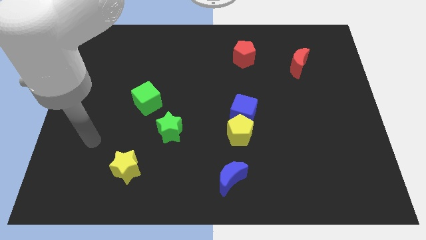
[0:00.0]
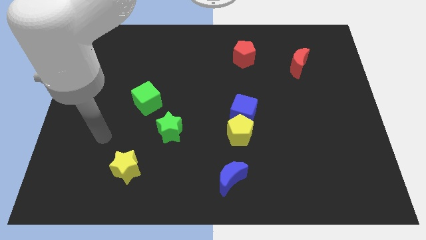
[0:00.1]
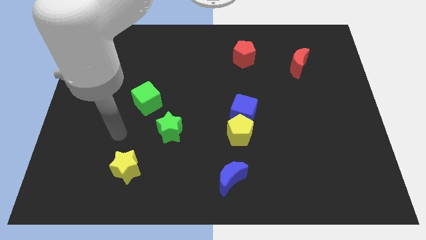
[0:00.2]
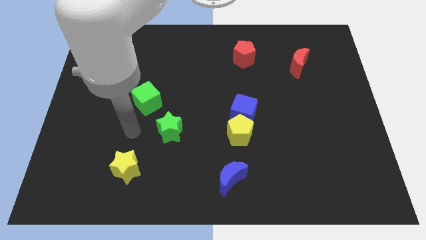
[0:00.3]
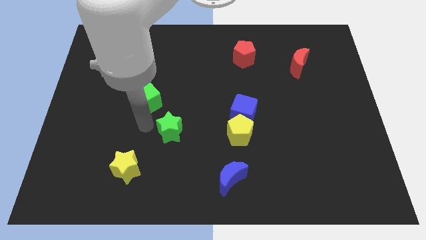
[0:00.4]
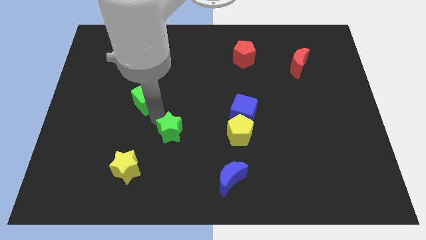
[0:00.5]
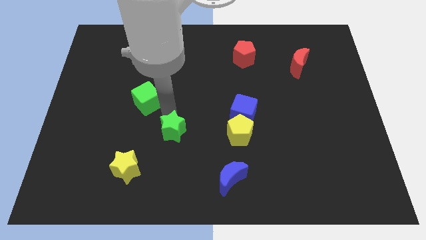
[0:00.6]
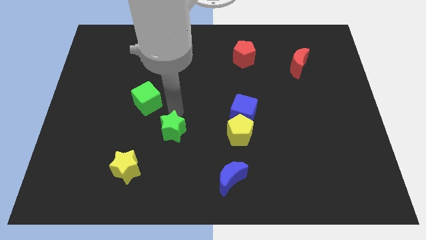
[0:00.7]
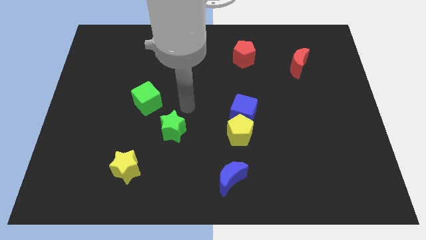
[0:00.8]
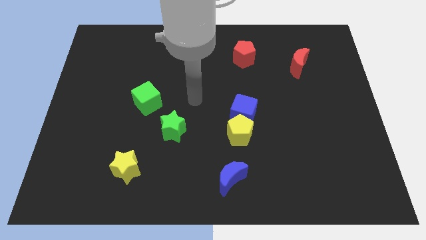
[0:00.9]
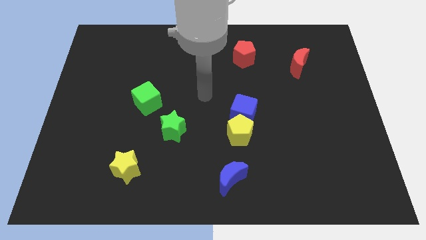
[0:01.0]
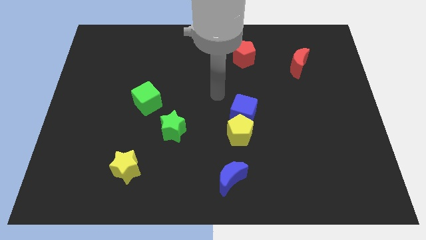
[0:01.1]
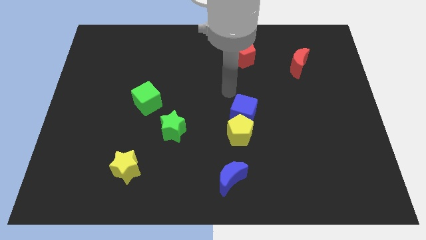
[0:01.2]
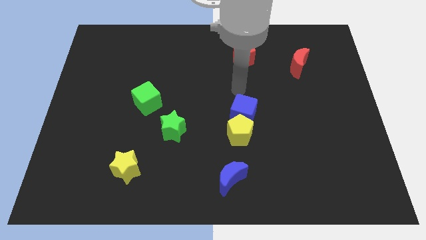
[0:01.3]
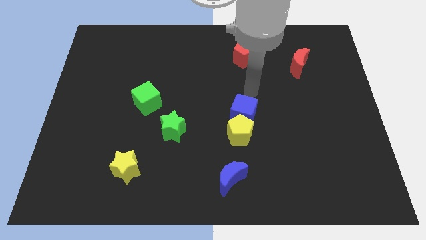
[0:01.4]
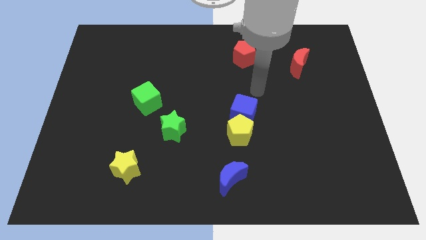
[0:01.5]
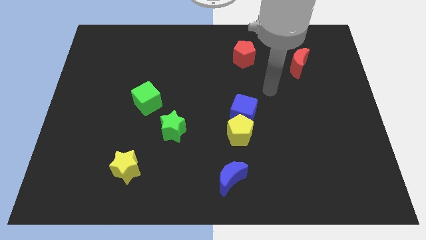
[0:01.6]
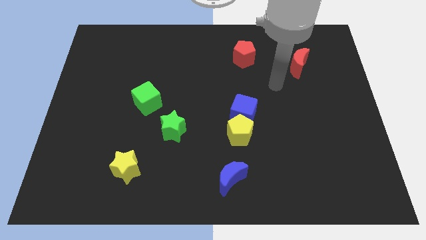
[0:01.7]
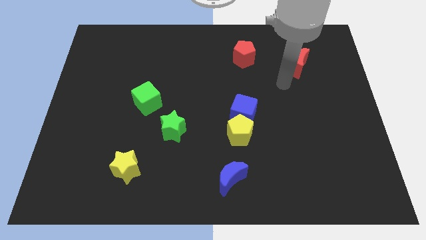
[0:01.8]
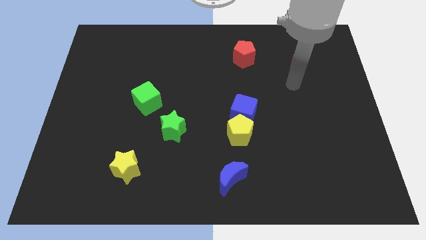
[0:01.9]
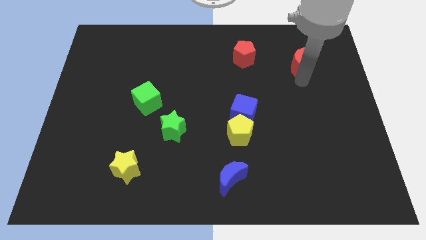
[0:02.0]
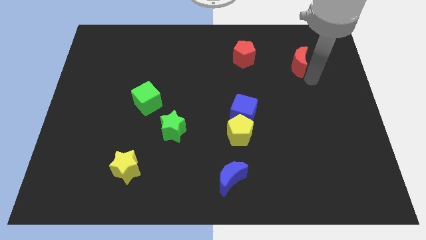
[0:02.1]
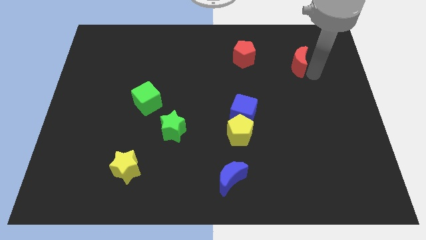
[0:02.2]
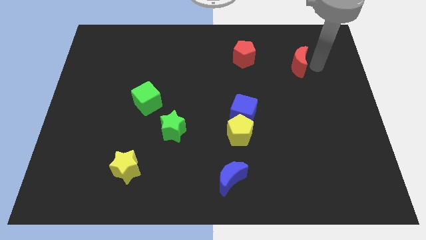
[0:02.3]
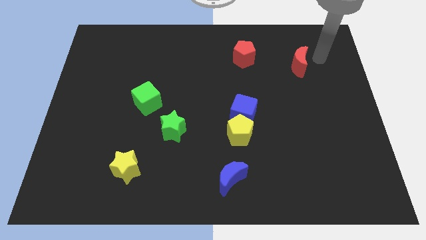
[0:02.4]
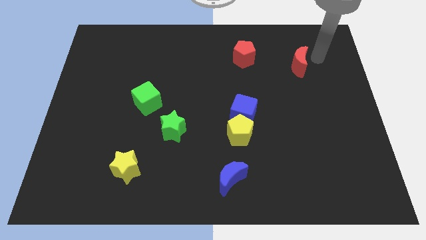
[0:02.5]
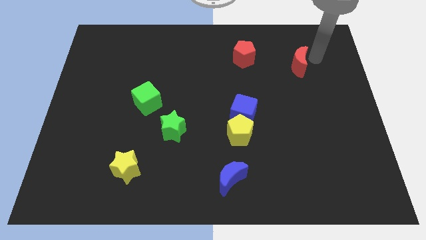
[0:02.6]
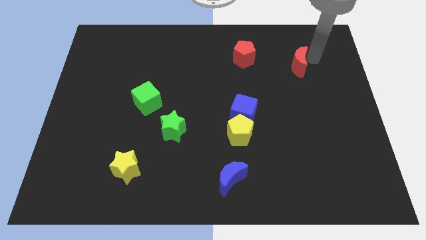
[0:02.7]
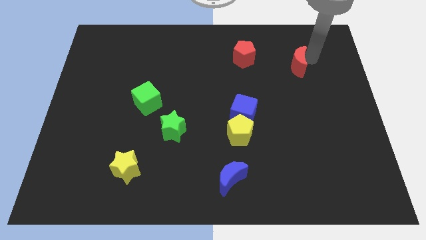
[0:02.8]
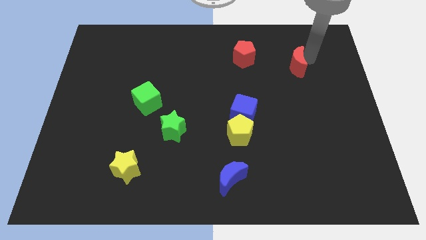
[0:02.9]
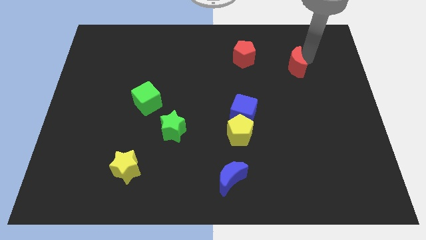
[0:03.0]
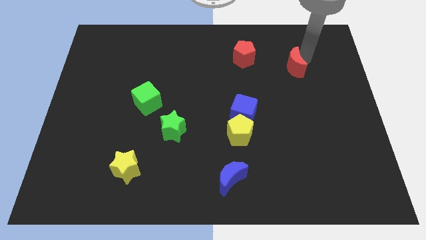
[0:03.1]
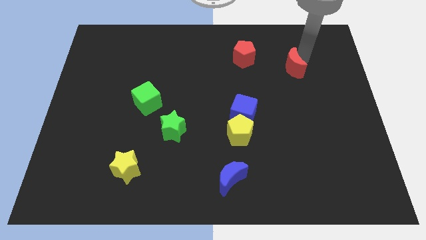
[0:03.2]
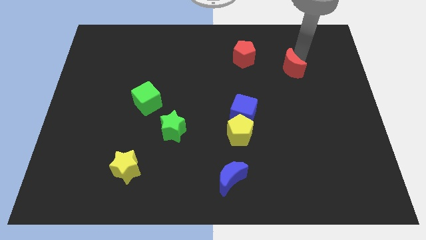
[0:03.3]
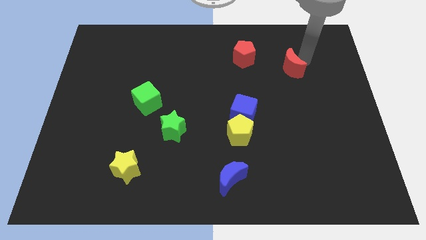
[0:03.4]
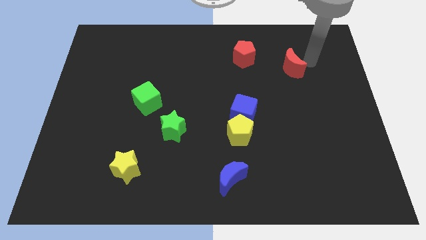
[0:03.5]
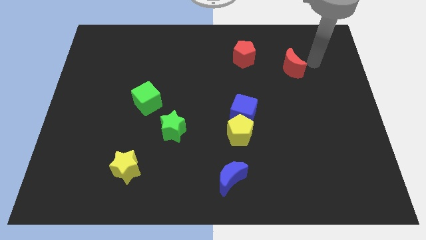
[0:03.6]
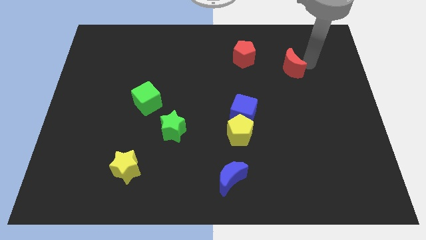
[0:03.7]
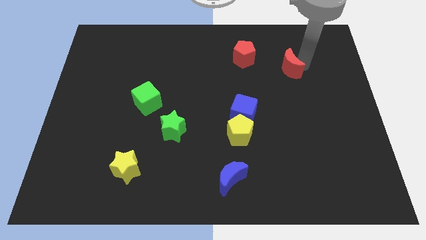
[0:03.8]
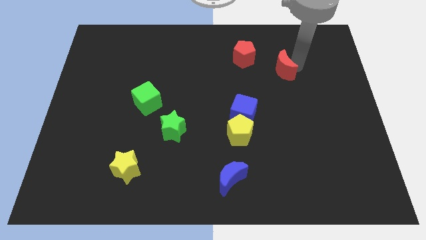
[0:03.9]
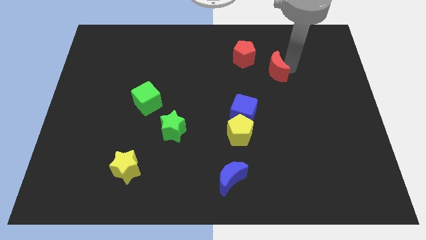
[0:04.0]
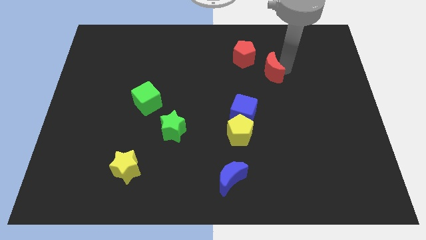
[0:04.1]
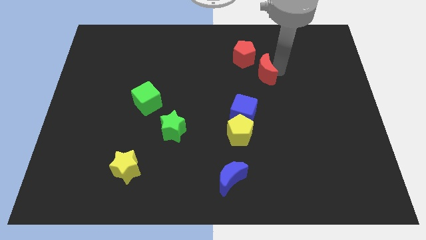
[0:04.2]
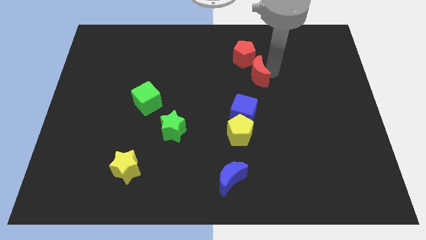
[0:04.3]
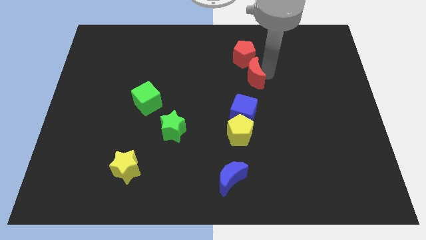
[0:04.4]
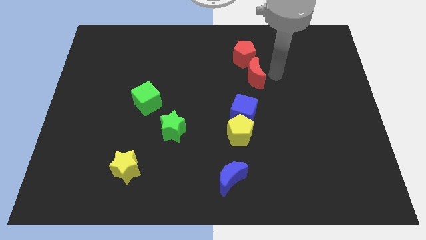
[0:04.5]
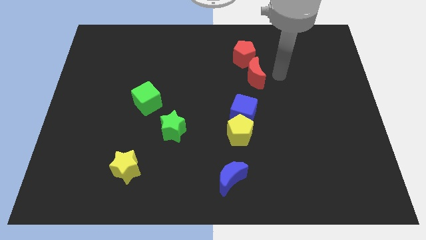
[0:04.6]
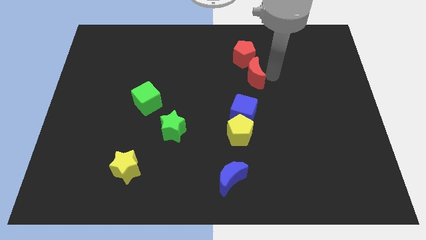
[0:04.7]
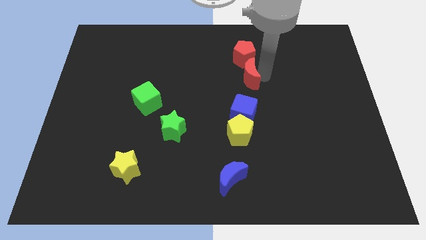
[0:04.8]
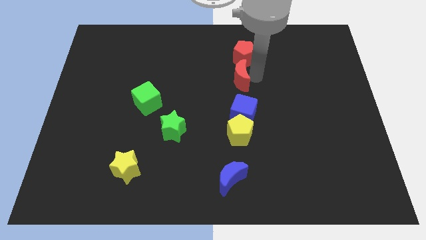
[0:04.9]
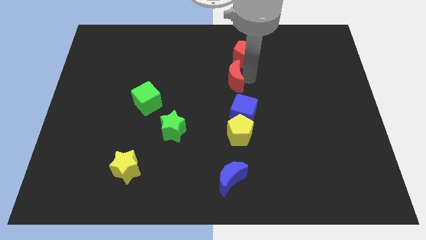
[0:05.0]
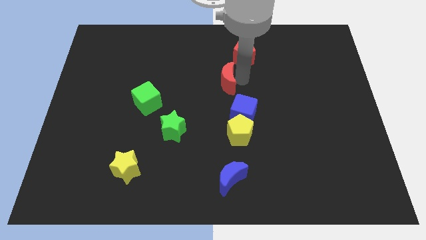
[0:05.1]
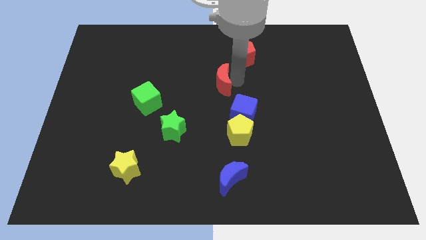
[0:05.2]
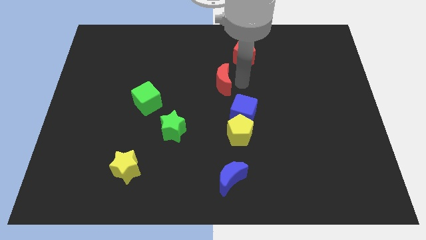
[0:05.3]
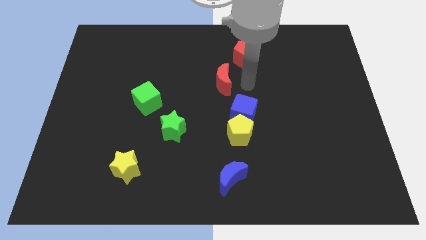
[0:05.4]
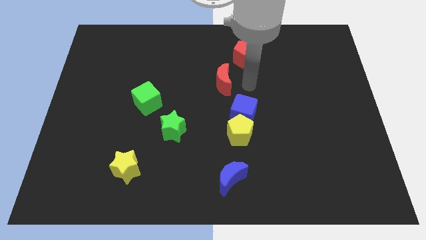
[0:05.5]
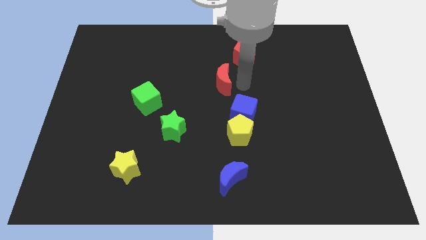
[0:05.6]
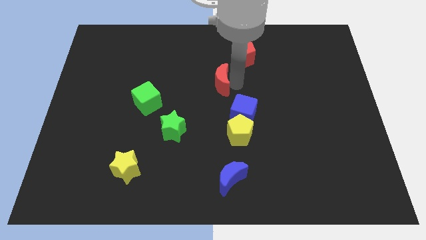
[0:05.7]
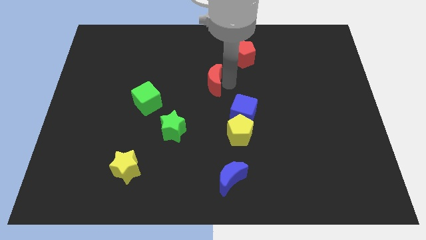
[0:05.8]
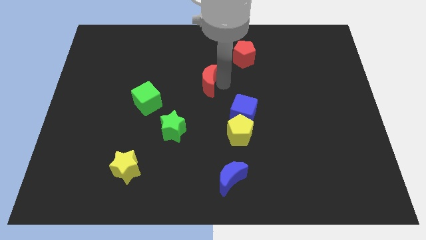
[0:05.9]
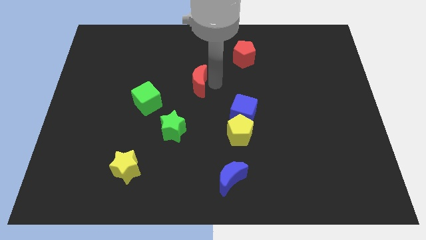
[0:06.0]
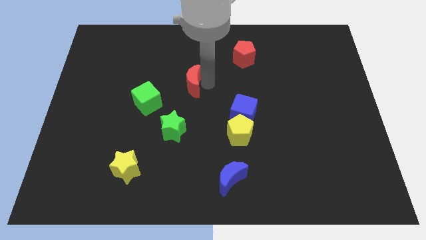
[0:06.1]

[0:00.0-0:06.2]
slide the red moon to the top right side of the green cube

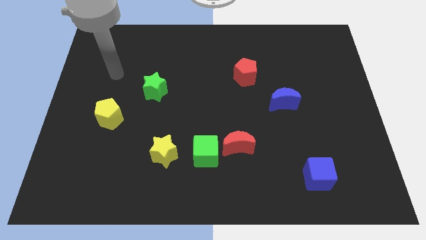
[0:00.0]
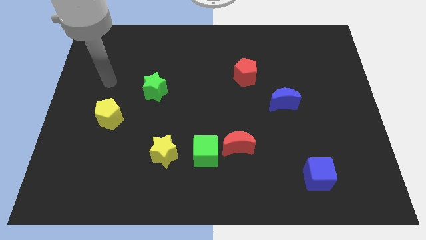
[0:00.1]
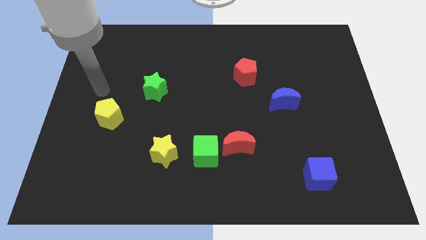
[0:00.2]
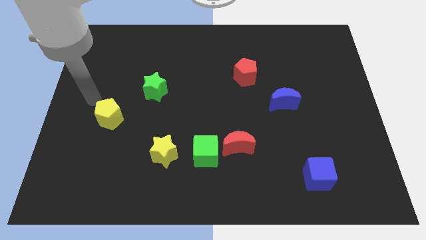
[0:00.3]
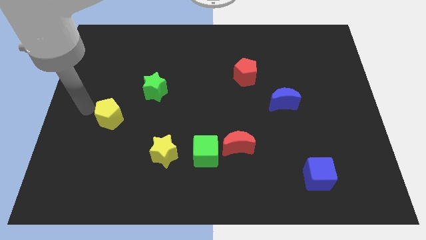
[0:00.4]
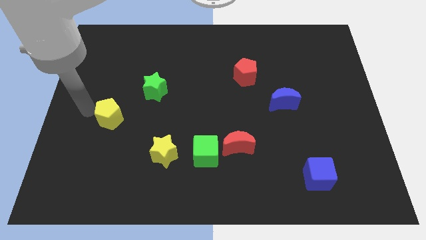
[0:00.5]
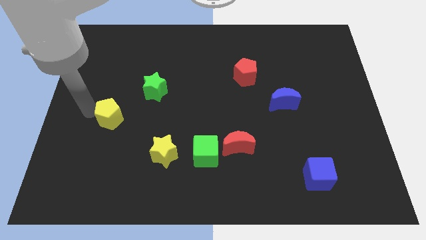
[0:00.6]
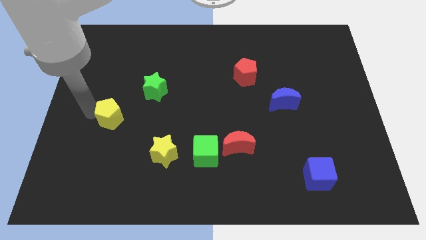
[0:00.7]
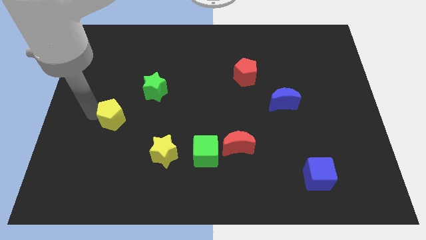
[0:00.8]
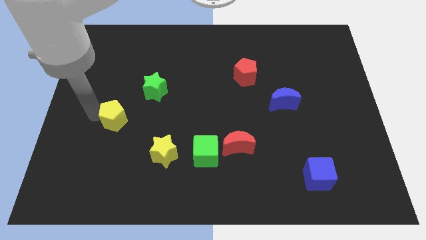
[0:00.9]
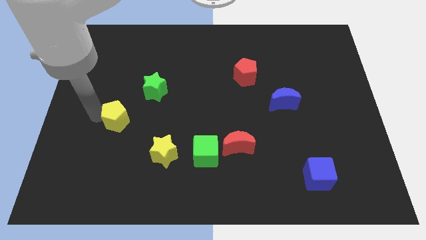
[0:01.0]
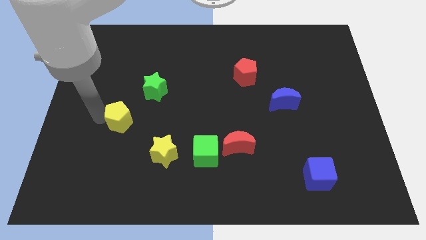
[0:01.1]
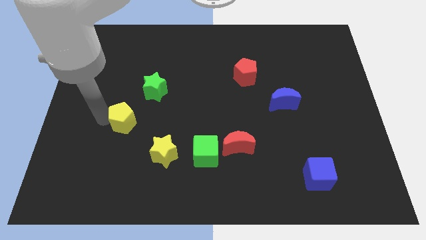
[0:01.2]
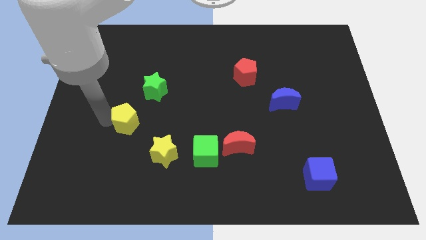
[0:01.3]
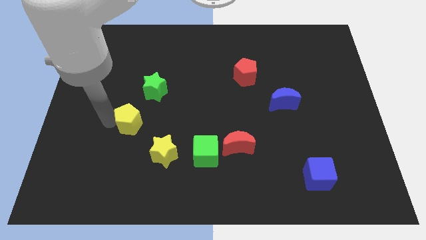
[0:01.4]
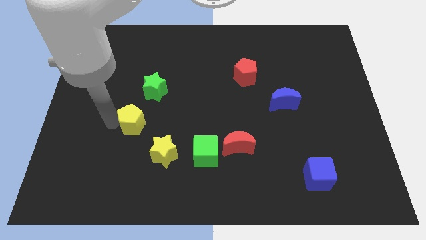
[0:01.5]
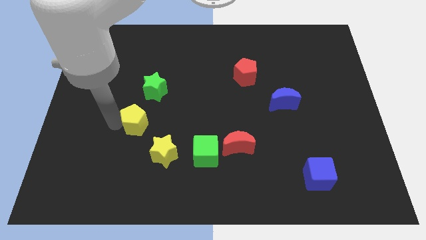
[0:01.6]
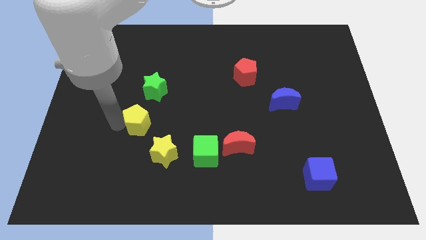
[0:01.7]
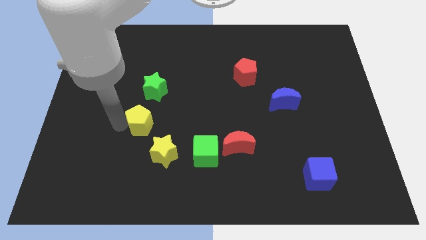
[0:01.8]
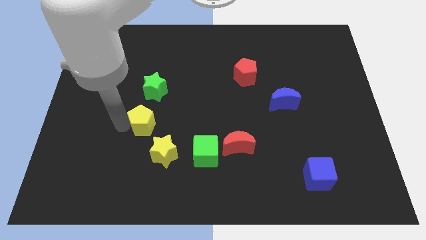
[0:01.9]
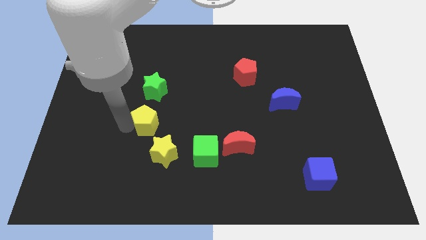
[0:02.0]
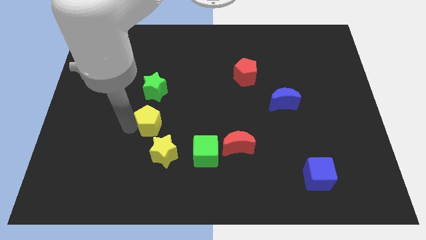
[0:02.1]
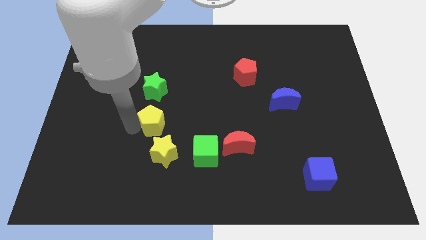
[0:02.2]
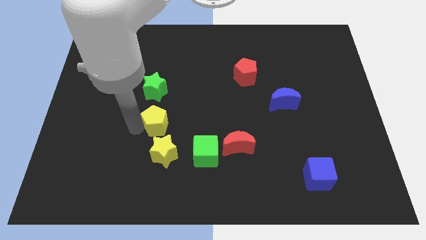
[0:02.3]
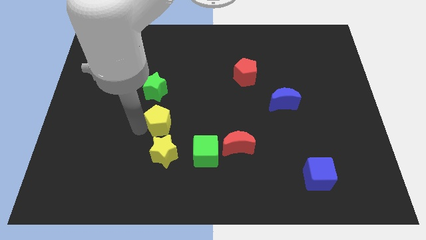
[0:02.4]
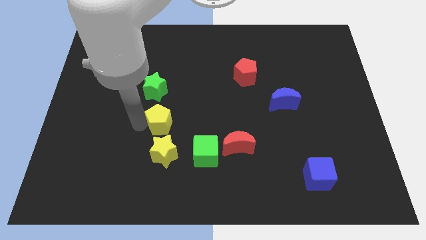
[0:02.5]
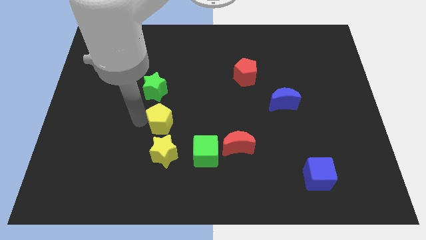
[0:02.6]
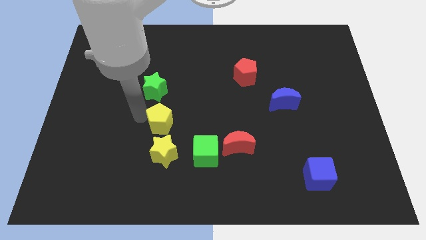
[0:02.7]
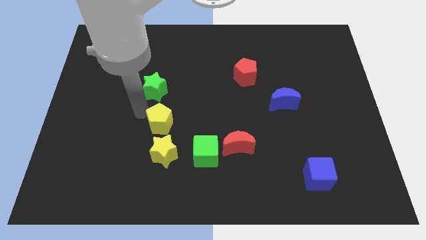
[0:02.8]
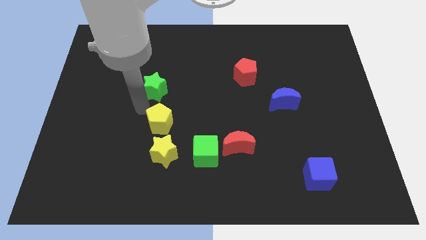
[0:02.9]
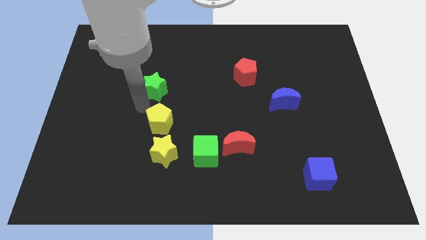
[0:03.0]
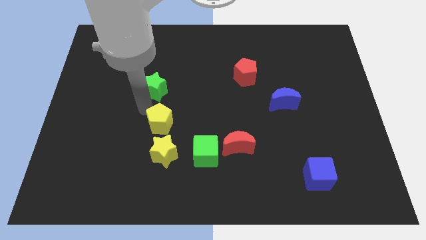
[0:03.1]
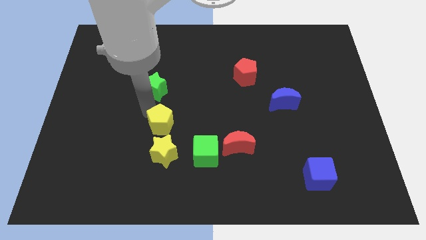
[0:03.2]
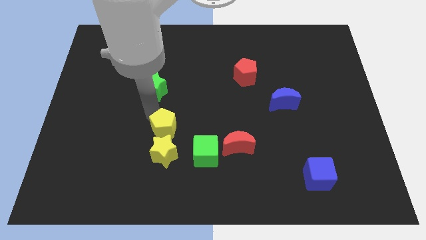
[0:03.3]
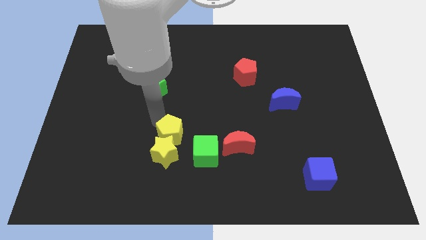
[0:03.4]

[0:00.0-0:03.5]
put the yellow pentagon just left of the red moon
